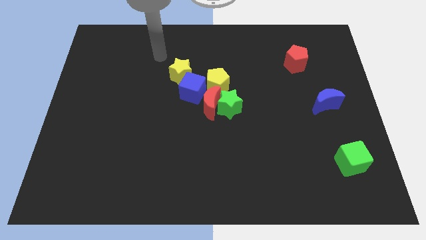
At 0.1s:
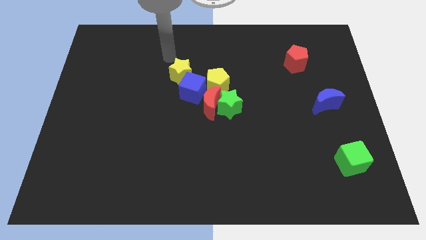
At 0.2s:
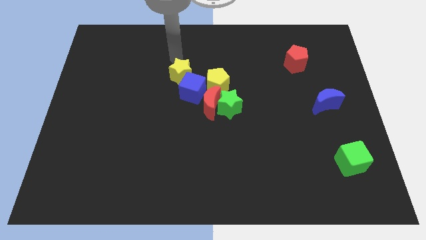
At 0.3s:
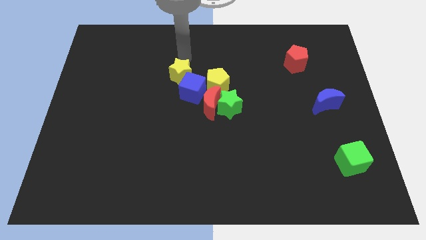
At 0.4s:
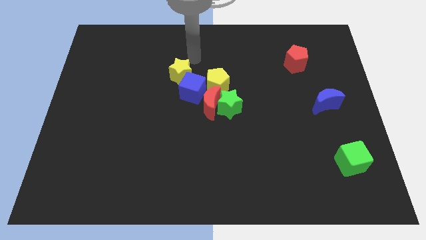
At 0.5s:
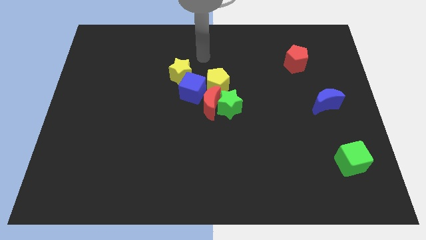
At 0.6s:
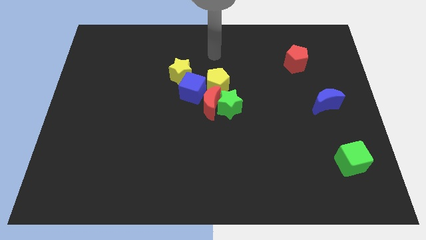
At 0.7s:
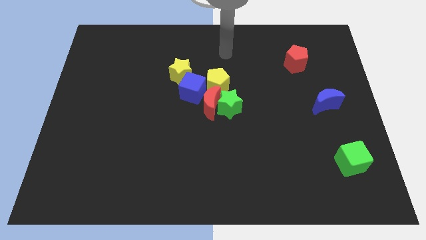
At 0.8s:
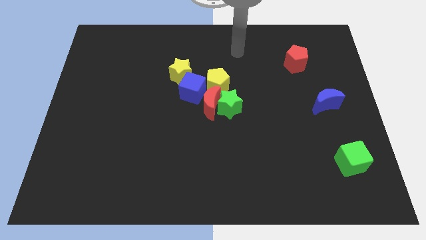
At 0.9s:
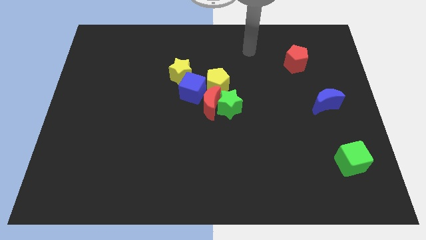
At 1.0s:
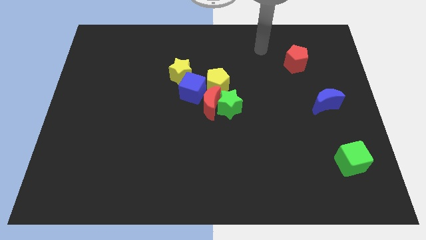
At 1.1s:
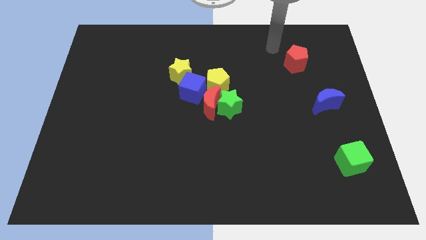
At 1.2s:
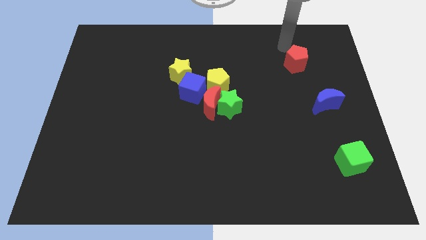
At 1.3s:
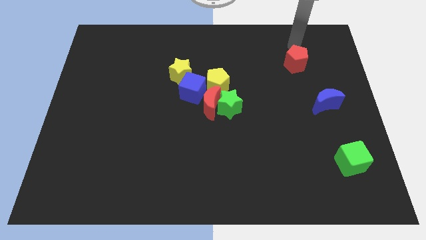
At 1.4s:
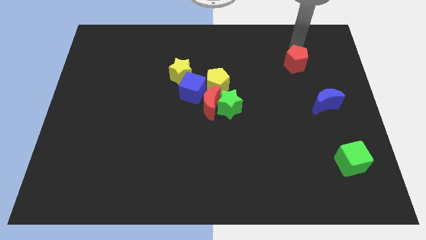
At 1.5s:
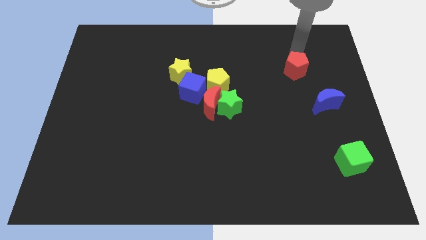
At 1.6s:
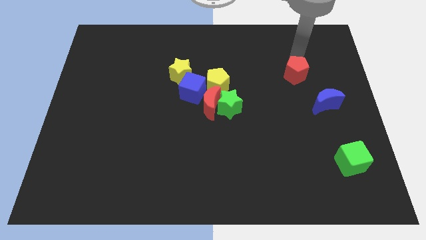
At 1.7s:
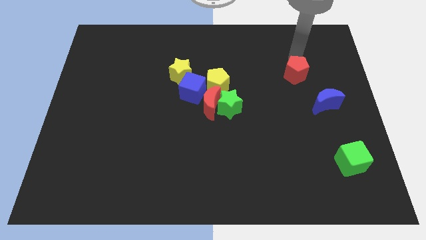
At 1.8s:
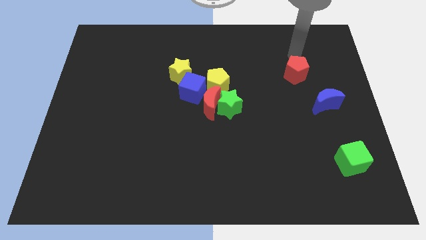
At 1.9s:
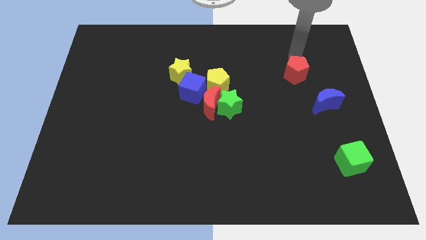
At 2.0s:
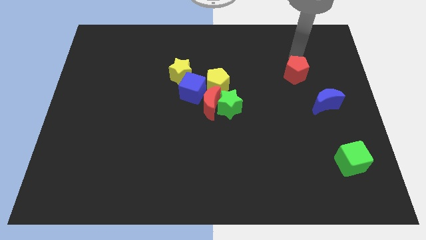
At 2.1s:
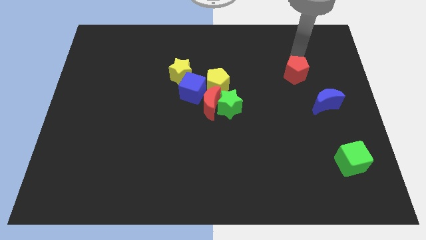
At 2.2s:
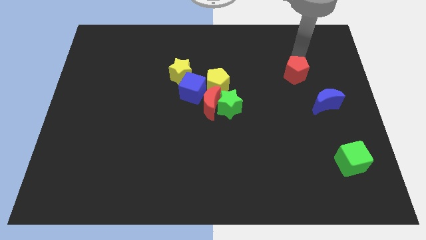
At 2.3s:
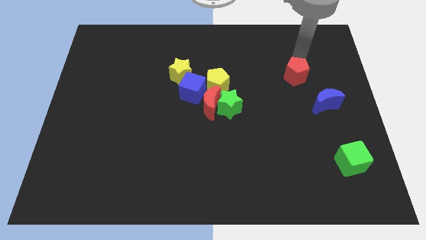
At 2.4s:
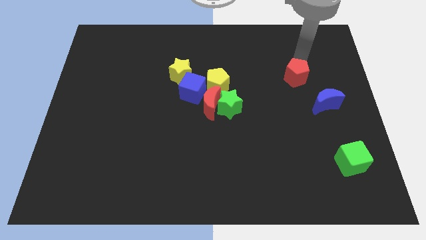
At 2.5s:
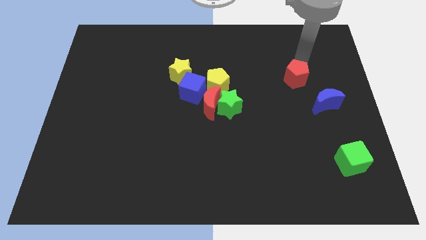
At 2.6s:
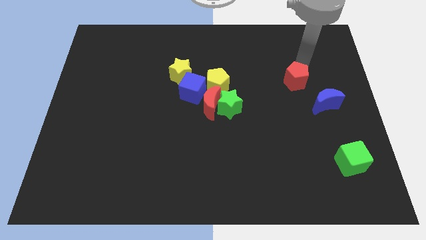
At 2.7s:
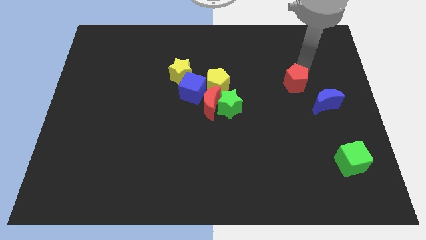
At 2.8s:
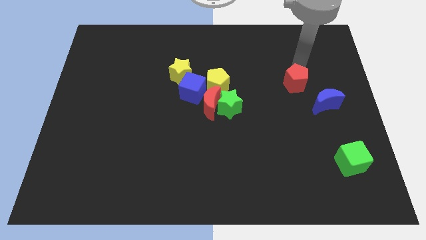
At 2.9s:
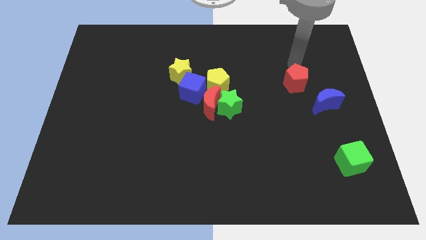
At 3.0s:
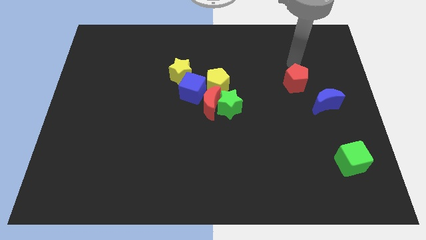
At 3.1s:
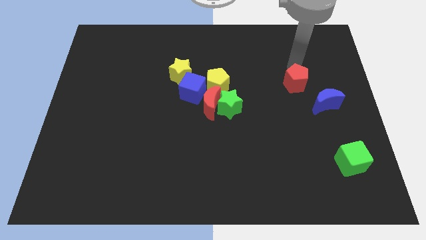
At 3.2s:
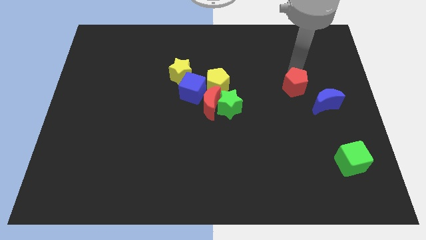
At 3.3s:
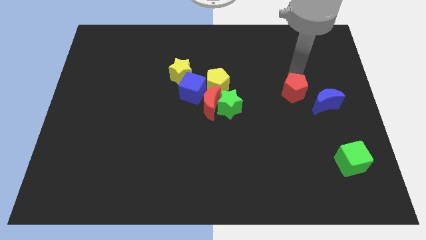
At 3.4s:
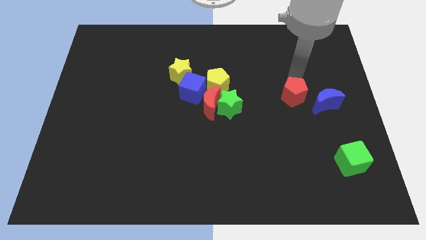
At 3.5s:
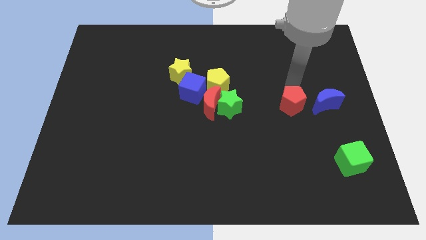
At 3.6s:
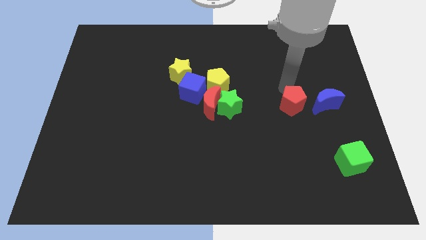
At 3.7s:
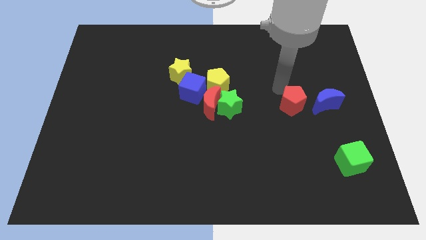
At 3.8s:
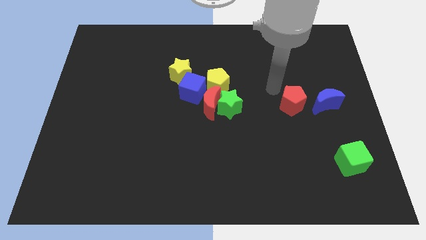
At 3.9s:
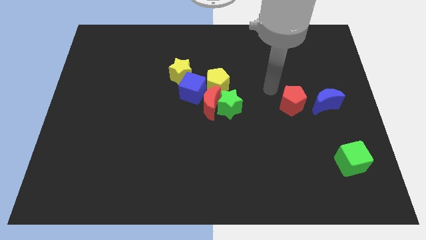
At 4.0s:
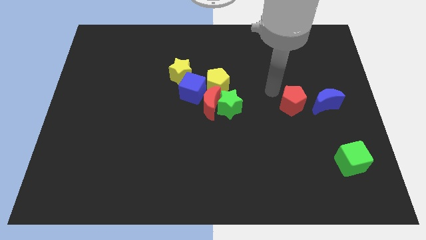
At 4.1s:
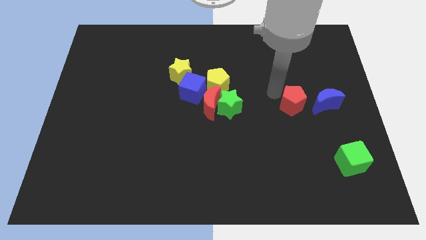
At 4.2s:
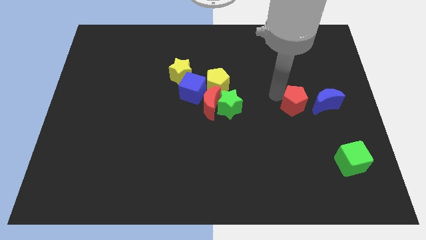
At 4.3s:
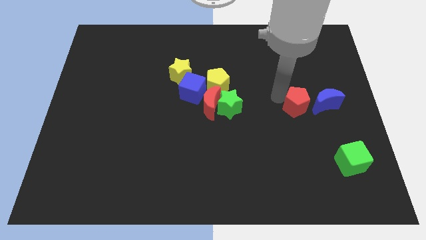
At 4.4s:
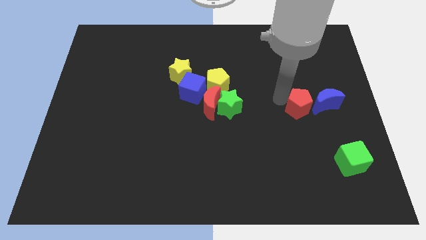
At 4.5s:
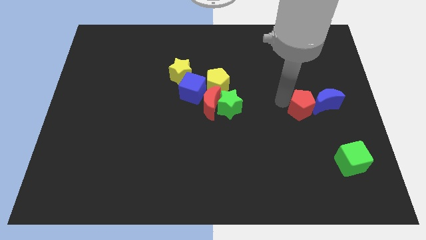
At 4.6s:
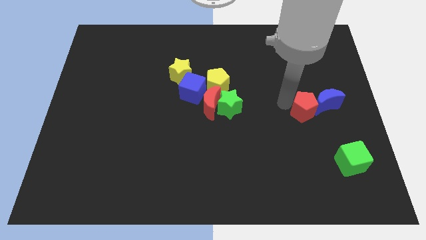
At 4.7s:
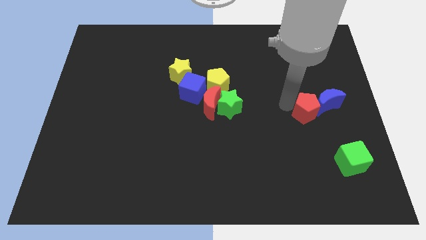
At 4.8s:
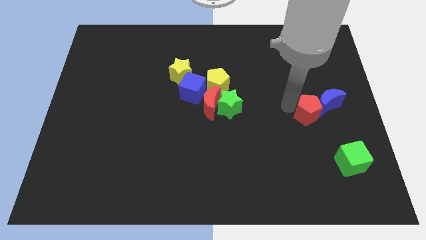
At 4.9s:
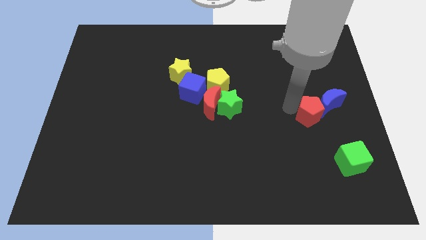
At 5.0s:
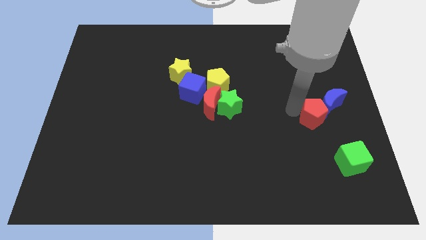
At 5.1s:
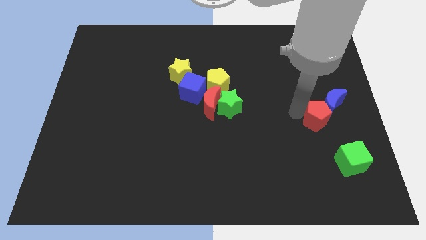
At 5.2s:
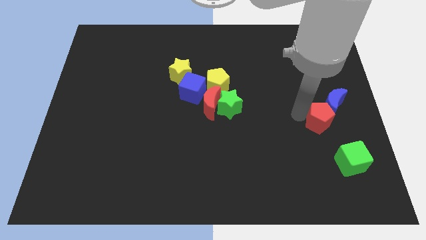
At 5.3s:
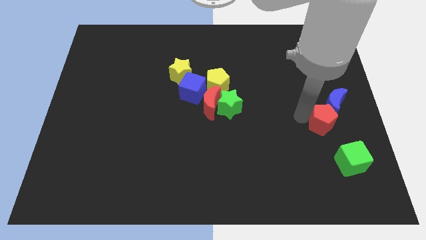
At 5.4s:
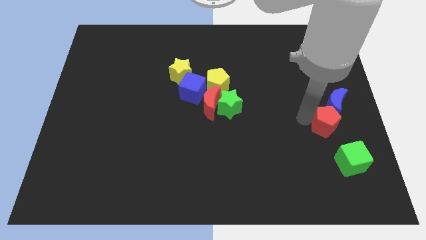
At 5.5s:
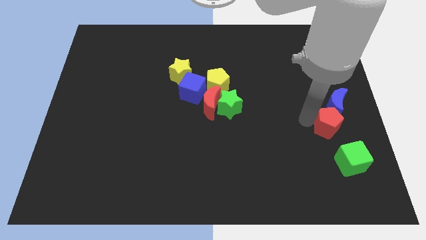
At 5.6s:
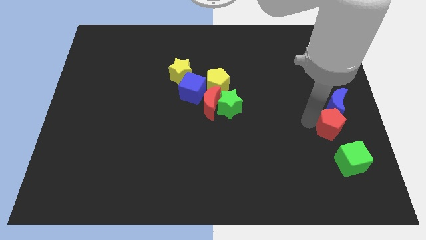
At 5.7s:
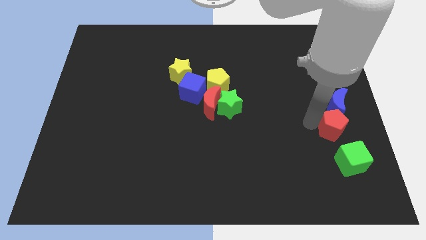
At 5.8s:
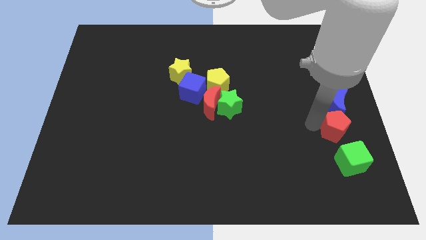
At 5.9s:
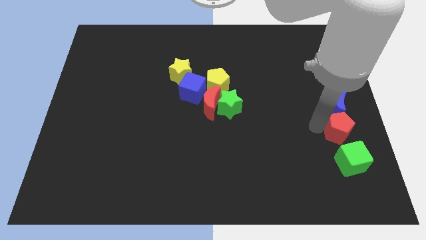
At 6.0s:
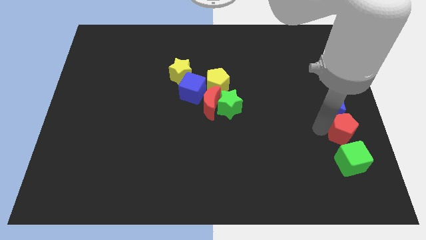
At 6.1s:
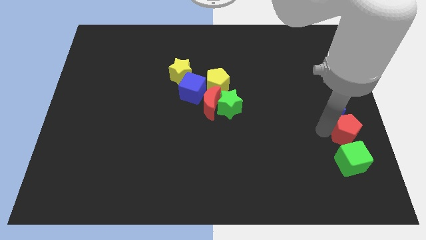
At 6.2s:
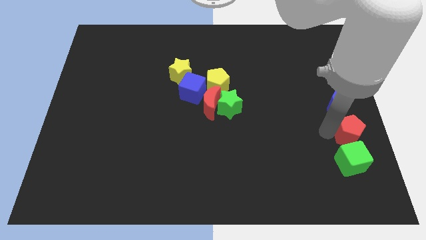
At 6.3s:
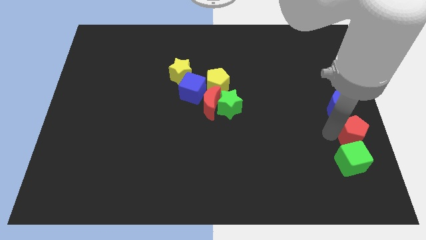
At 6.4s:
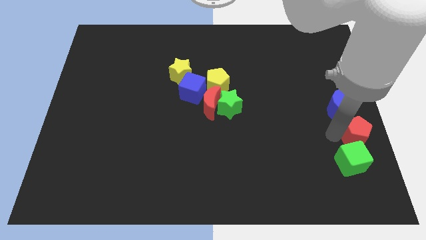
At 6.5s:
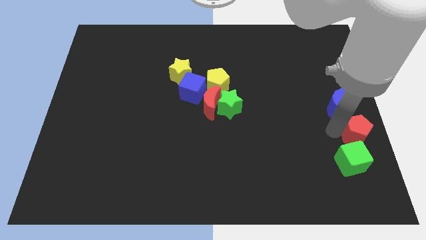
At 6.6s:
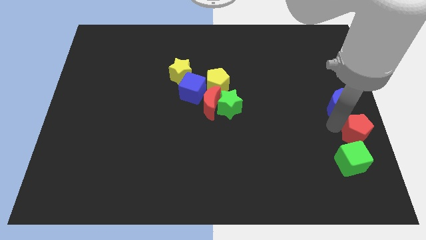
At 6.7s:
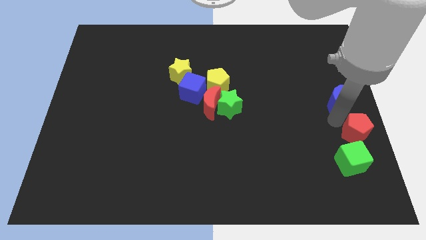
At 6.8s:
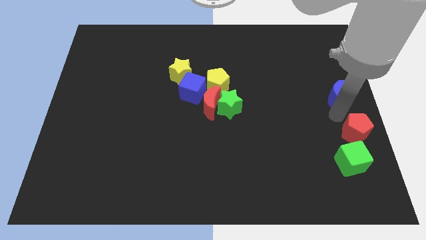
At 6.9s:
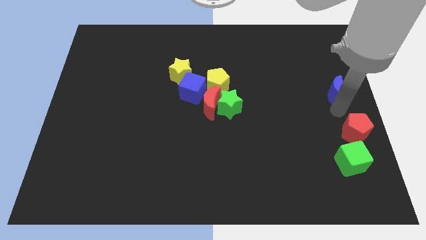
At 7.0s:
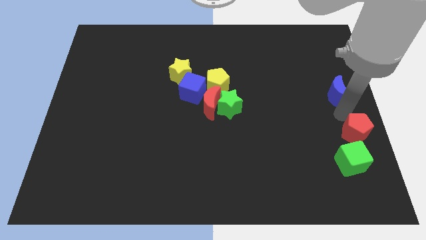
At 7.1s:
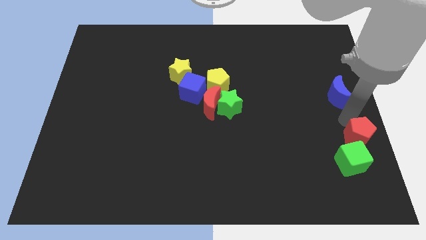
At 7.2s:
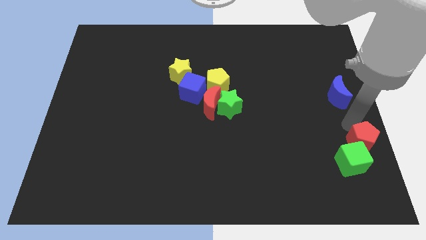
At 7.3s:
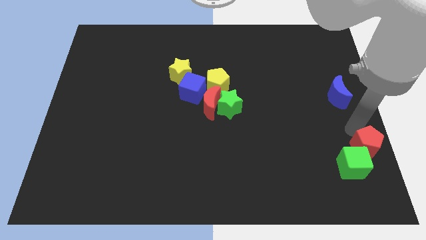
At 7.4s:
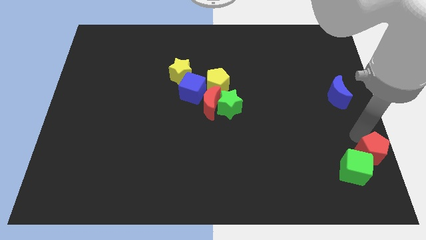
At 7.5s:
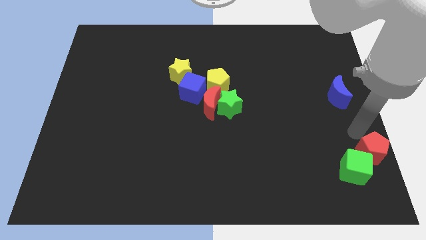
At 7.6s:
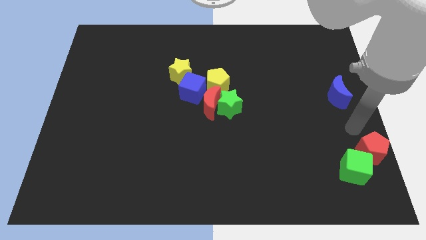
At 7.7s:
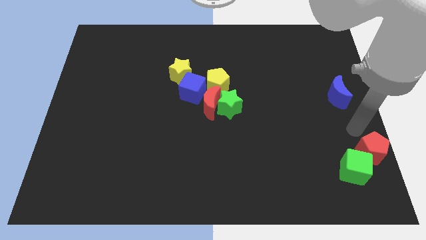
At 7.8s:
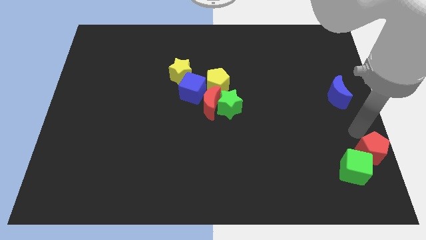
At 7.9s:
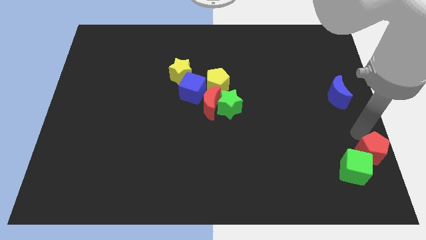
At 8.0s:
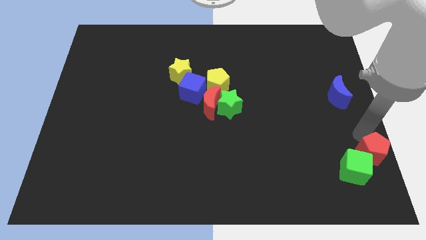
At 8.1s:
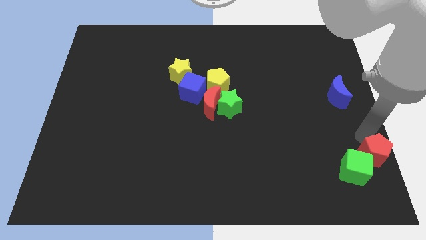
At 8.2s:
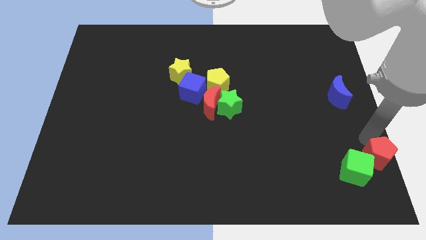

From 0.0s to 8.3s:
slide the red pentagon to the bottom right corner
